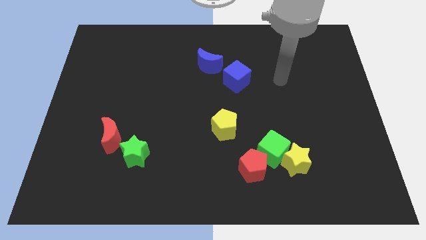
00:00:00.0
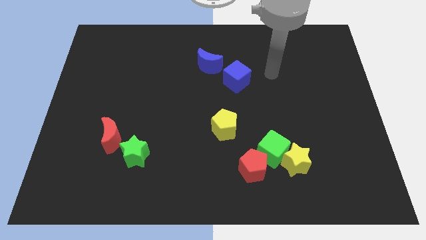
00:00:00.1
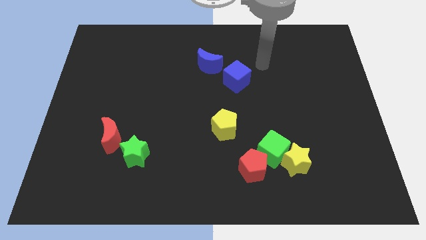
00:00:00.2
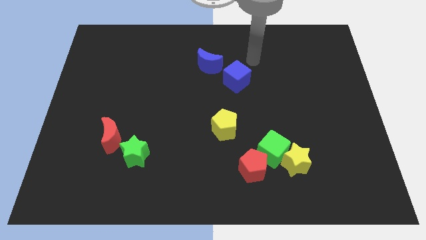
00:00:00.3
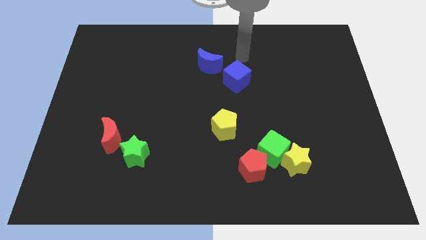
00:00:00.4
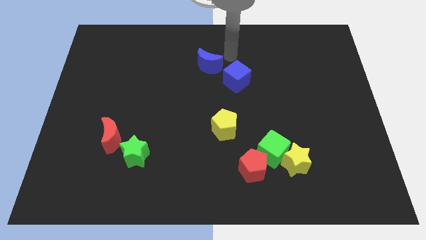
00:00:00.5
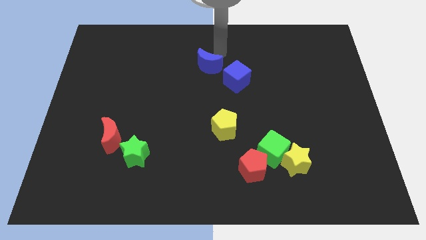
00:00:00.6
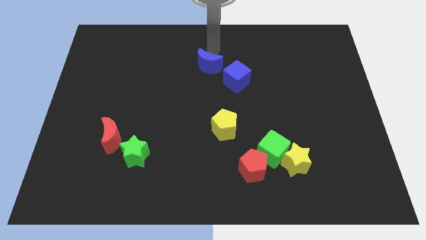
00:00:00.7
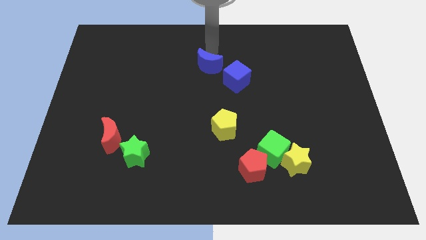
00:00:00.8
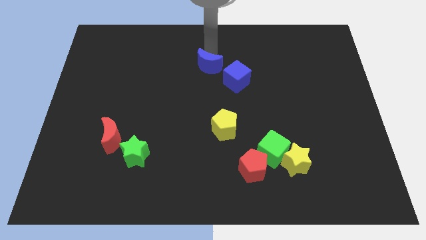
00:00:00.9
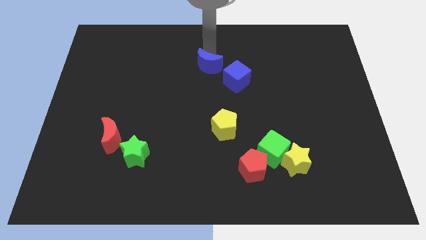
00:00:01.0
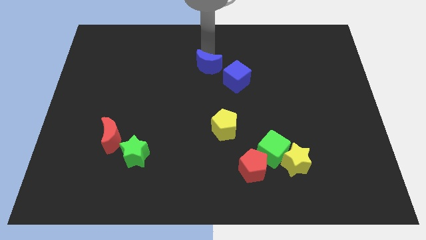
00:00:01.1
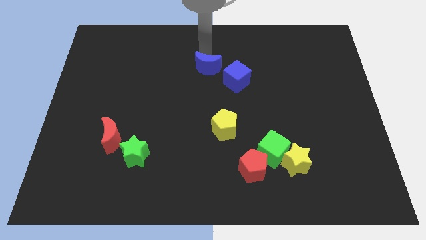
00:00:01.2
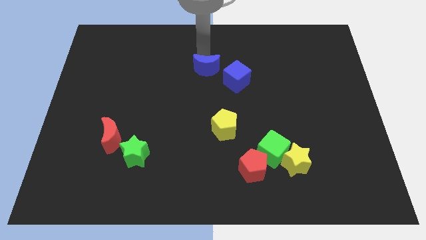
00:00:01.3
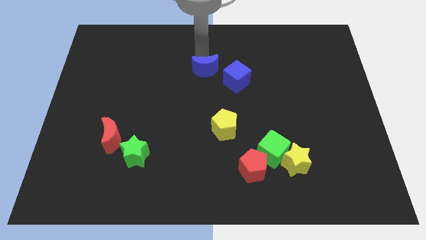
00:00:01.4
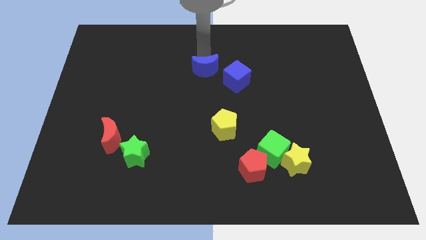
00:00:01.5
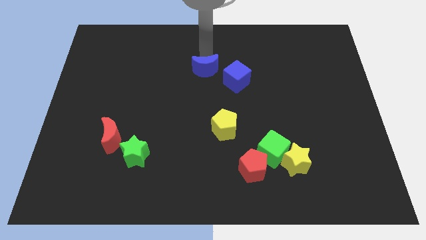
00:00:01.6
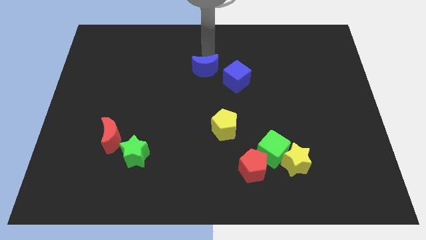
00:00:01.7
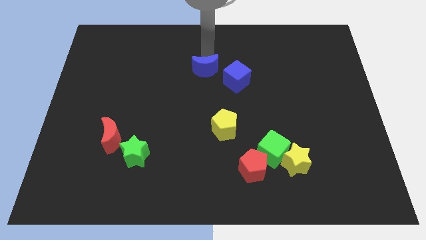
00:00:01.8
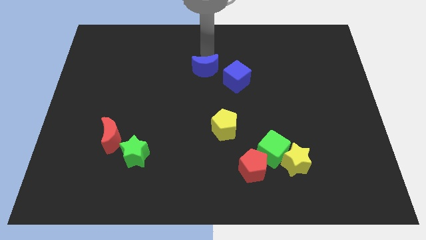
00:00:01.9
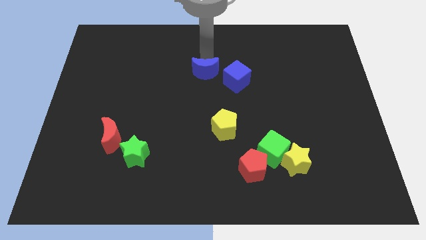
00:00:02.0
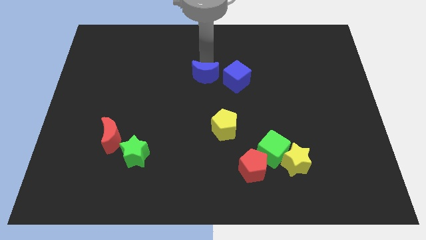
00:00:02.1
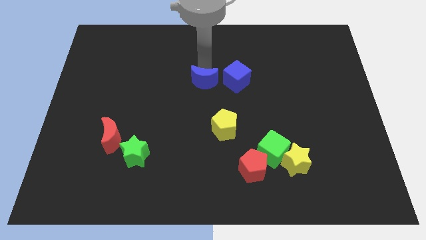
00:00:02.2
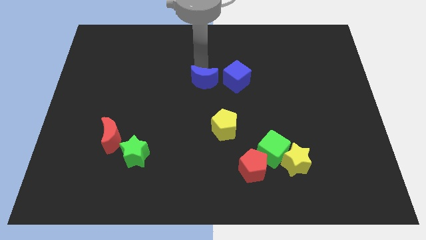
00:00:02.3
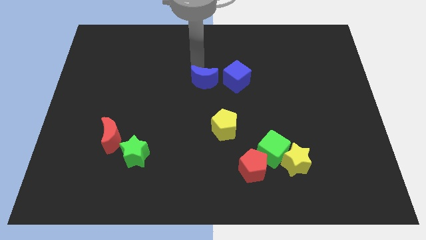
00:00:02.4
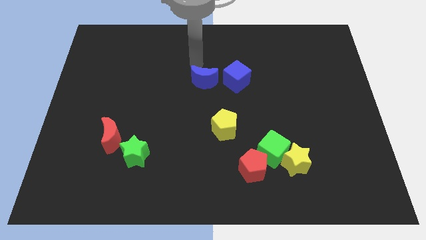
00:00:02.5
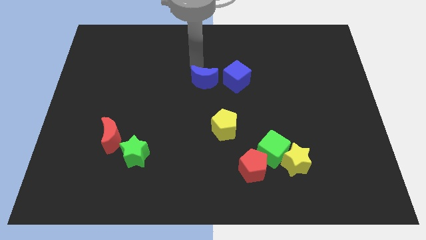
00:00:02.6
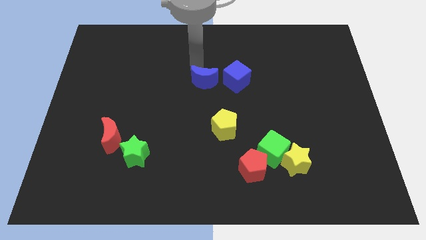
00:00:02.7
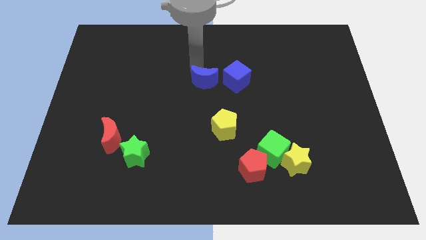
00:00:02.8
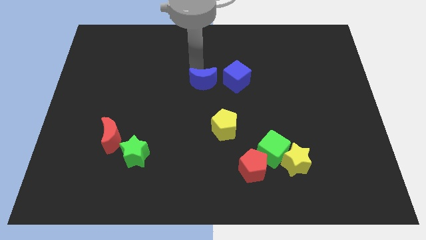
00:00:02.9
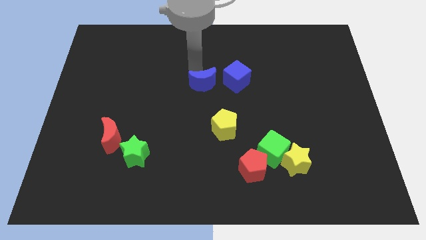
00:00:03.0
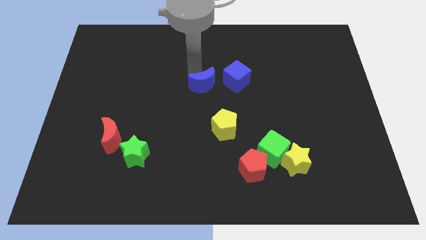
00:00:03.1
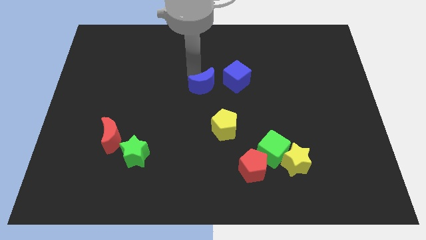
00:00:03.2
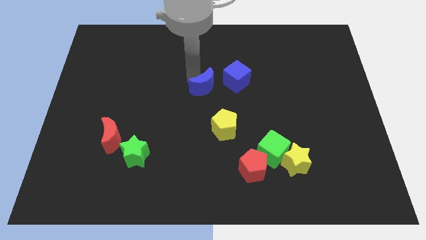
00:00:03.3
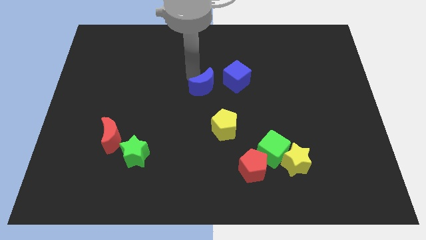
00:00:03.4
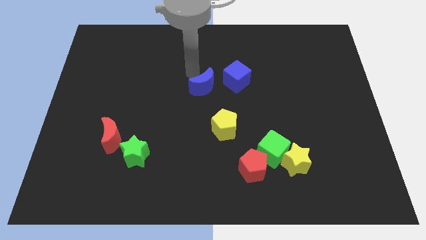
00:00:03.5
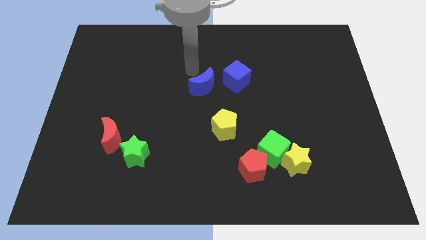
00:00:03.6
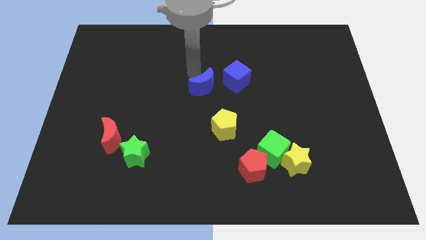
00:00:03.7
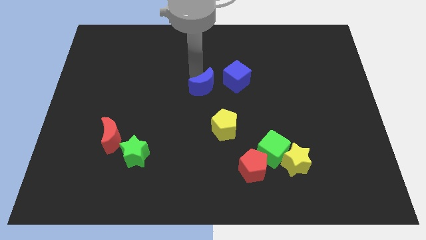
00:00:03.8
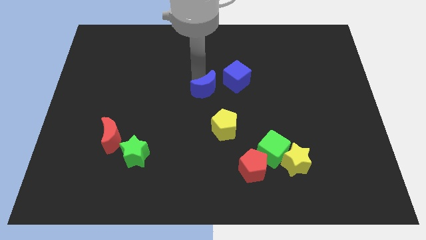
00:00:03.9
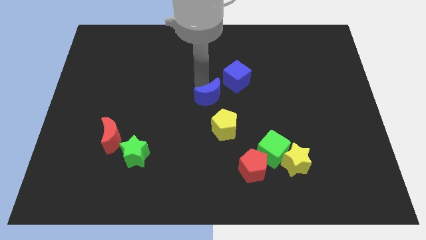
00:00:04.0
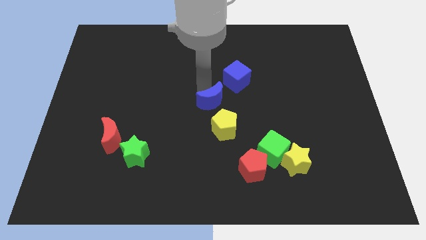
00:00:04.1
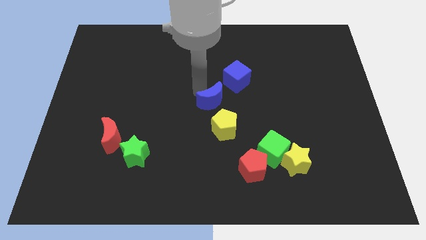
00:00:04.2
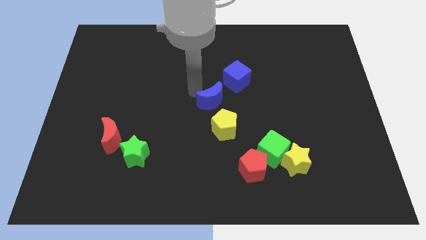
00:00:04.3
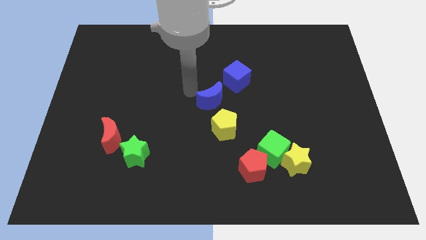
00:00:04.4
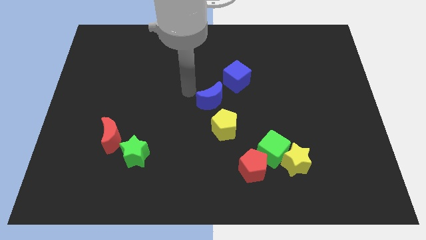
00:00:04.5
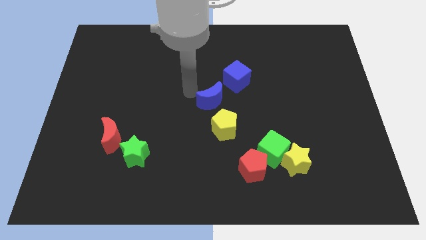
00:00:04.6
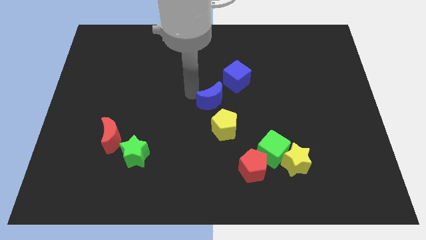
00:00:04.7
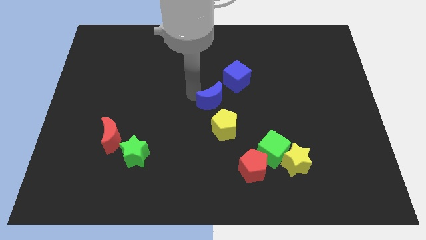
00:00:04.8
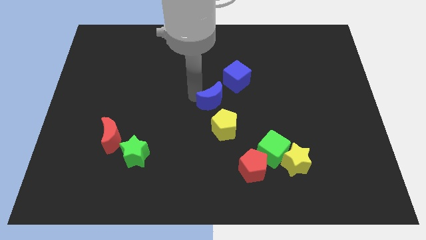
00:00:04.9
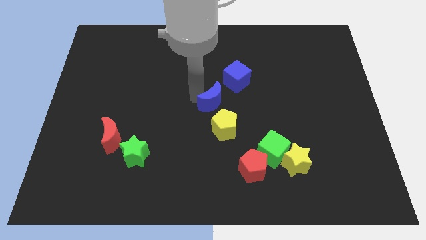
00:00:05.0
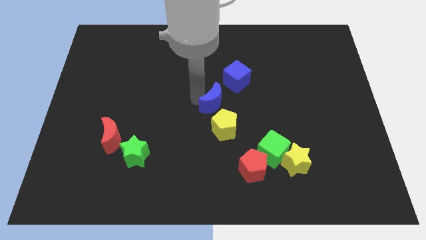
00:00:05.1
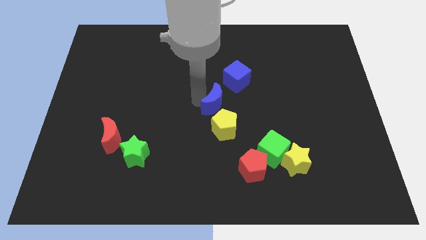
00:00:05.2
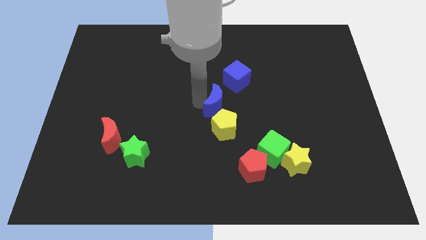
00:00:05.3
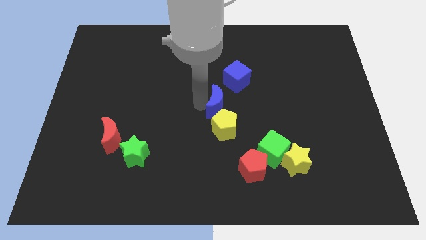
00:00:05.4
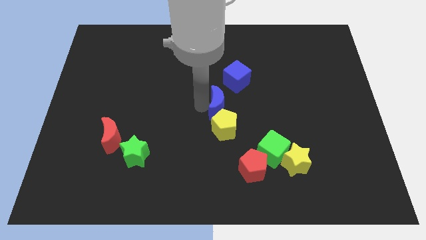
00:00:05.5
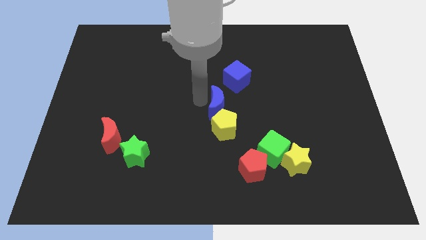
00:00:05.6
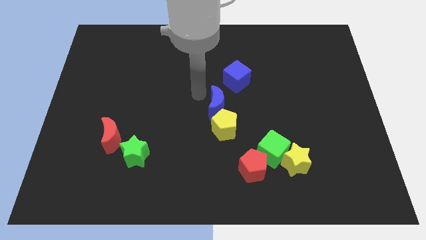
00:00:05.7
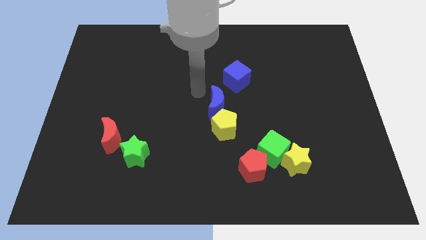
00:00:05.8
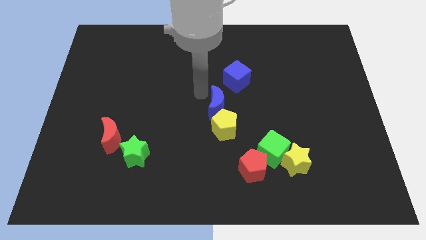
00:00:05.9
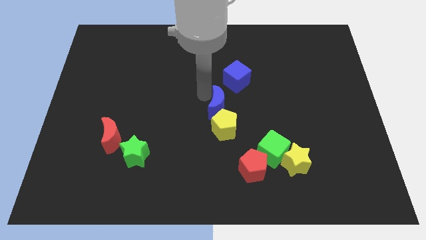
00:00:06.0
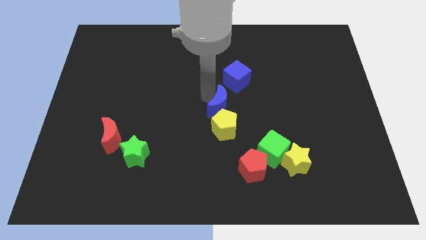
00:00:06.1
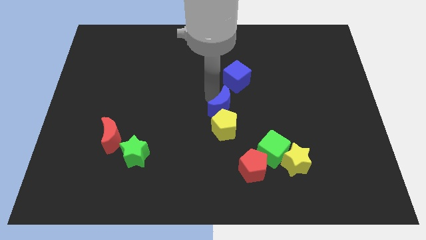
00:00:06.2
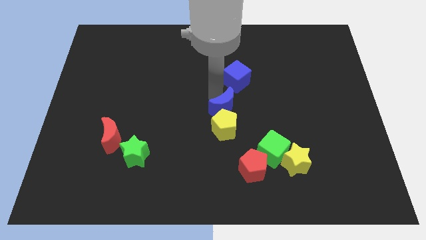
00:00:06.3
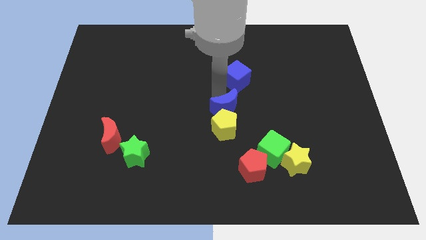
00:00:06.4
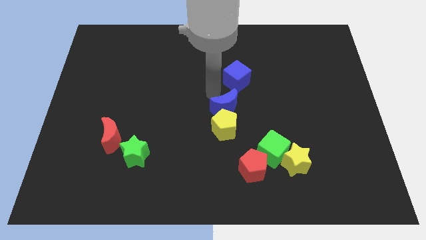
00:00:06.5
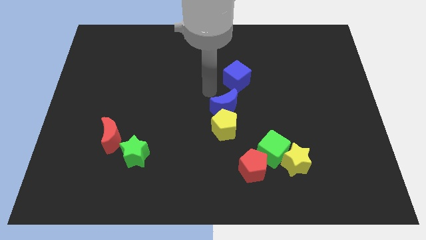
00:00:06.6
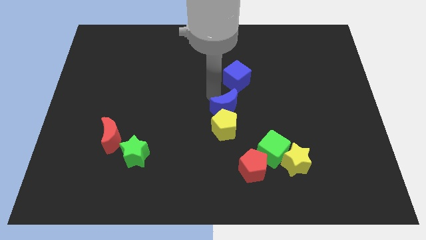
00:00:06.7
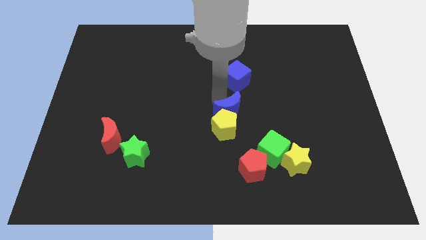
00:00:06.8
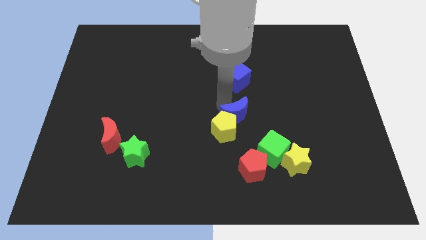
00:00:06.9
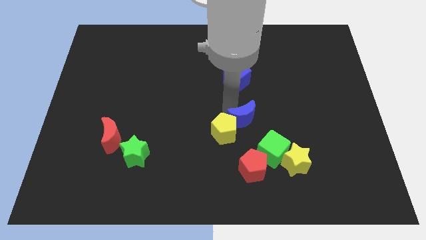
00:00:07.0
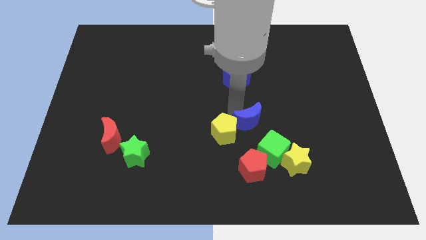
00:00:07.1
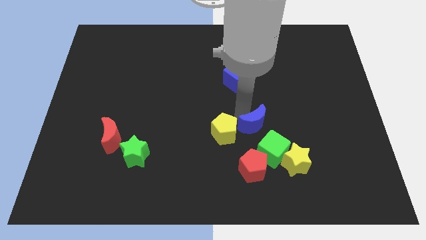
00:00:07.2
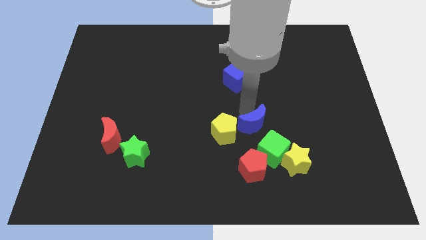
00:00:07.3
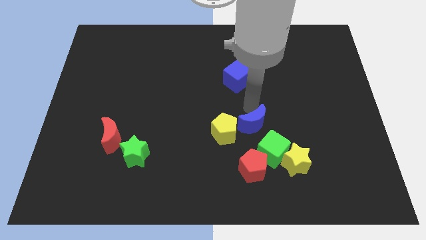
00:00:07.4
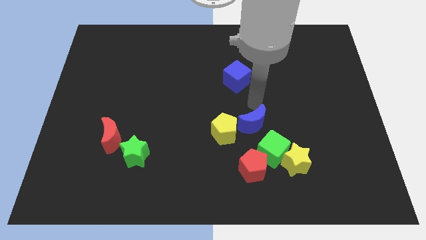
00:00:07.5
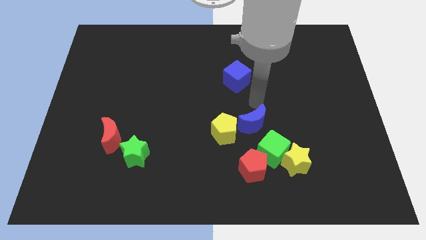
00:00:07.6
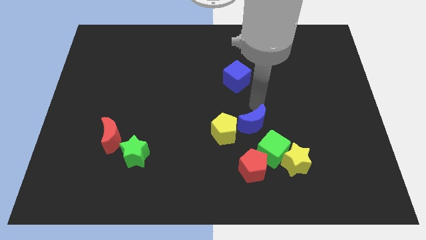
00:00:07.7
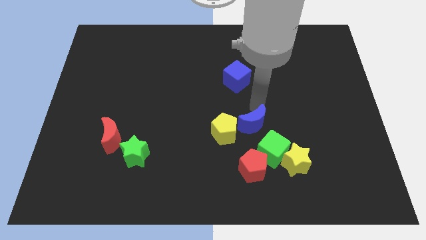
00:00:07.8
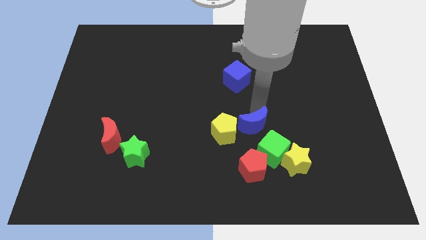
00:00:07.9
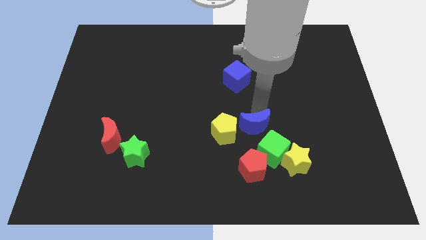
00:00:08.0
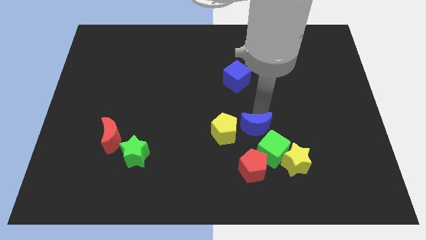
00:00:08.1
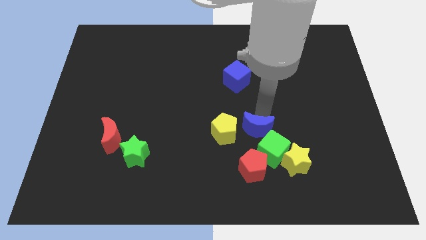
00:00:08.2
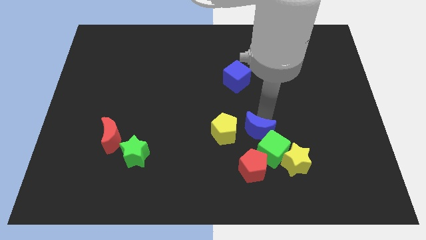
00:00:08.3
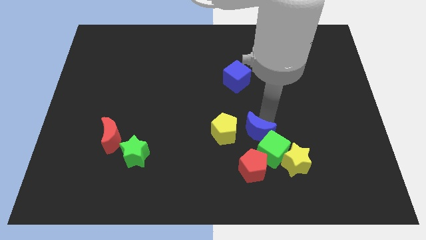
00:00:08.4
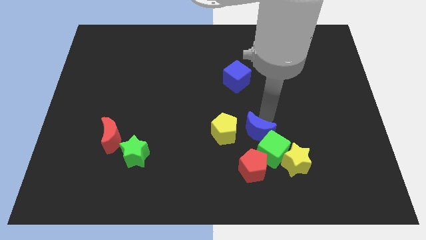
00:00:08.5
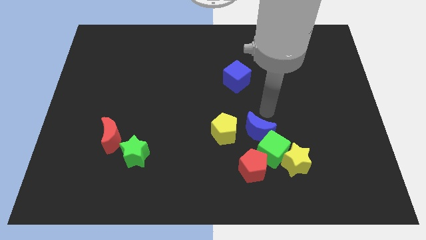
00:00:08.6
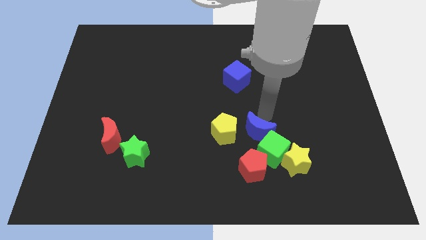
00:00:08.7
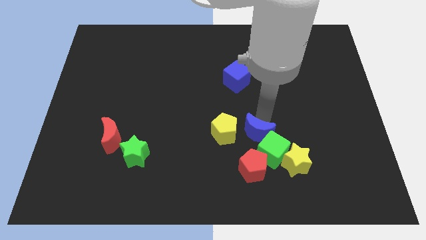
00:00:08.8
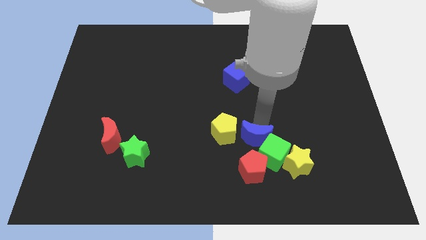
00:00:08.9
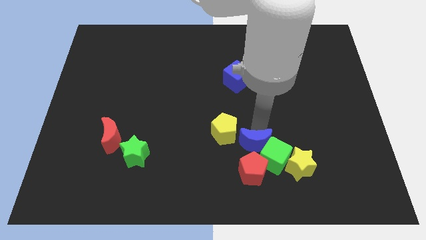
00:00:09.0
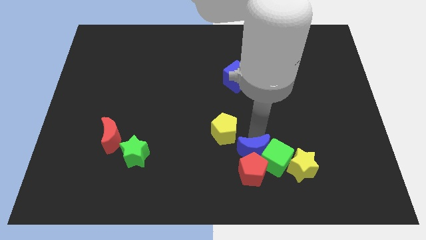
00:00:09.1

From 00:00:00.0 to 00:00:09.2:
slide the blue moon close to the red pentagon
